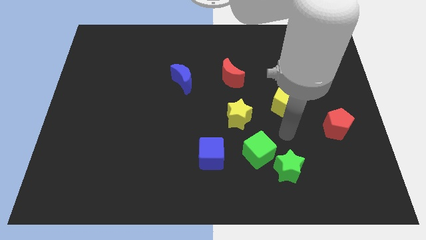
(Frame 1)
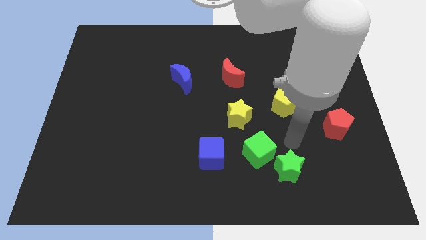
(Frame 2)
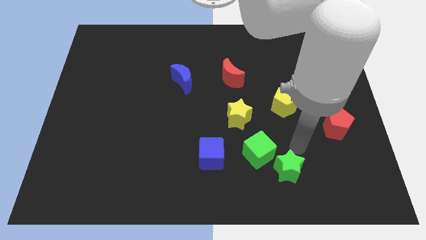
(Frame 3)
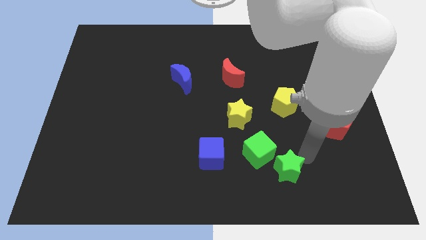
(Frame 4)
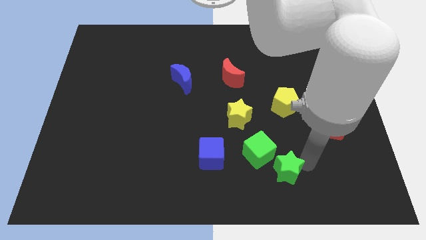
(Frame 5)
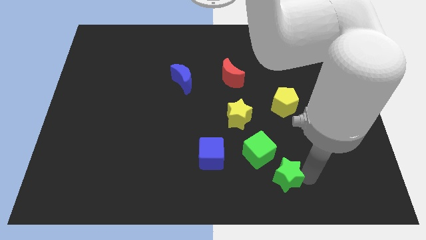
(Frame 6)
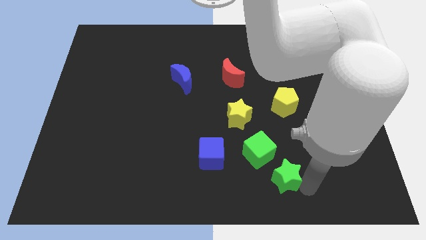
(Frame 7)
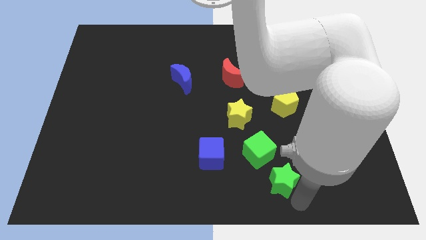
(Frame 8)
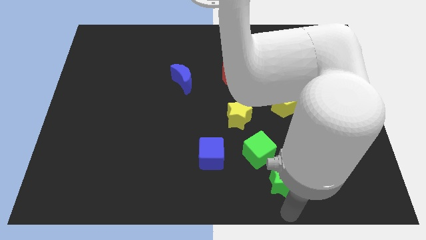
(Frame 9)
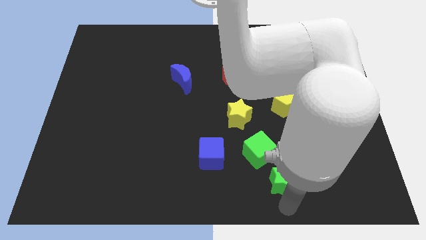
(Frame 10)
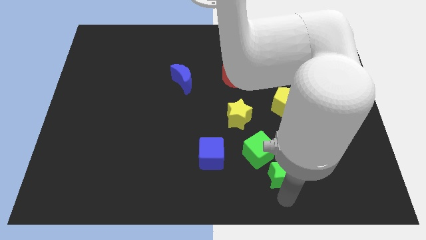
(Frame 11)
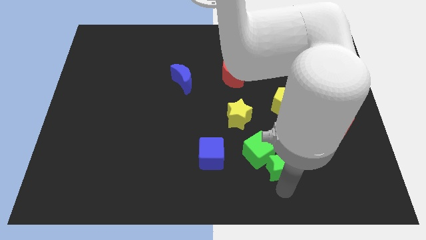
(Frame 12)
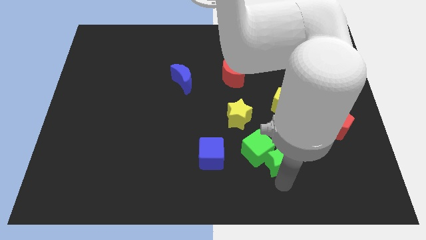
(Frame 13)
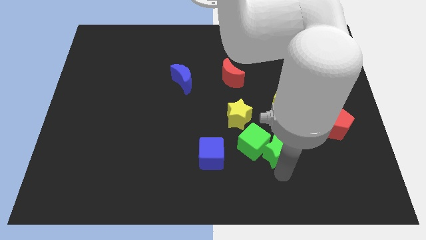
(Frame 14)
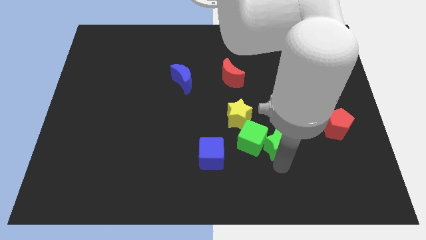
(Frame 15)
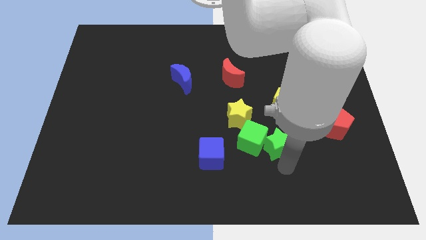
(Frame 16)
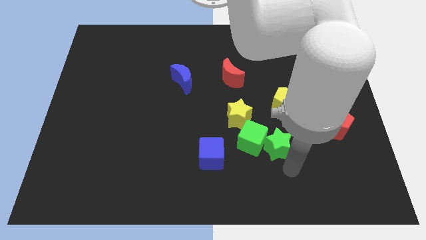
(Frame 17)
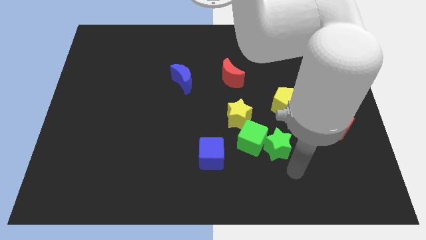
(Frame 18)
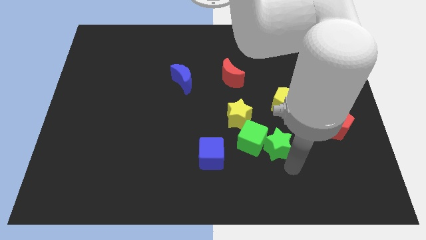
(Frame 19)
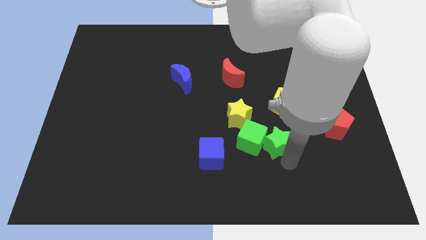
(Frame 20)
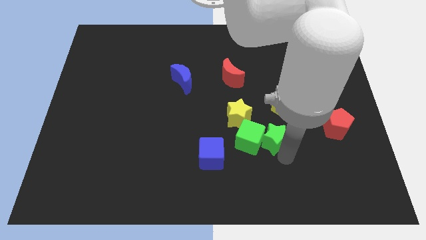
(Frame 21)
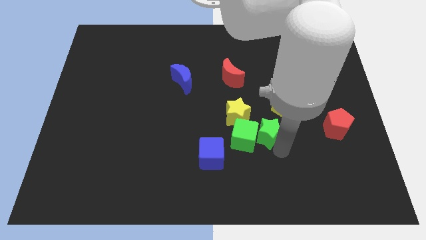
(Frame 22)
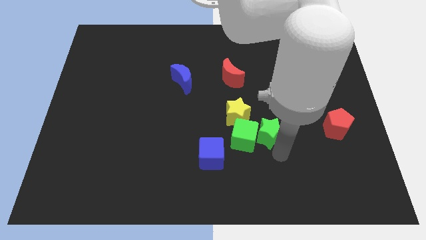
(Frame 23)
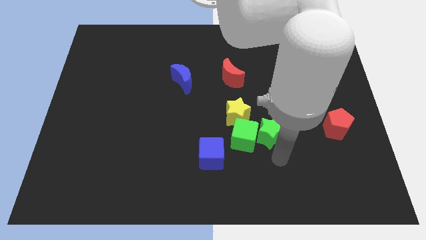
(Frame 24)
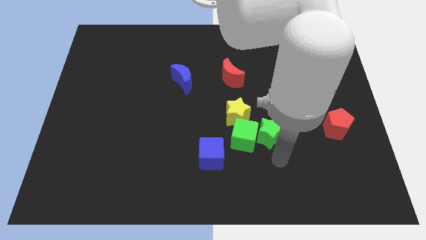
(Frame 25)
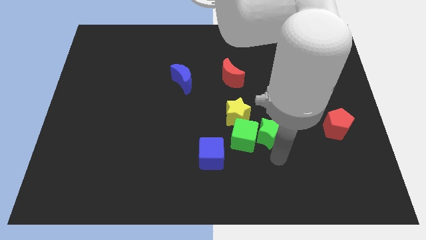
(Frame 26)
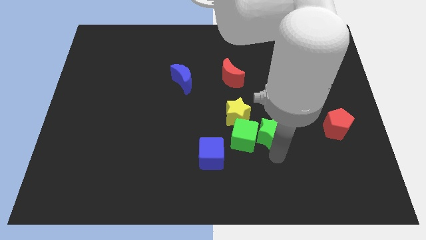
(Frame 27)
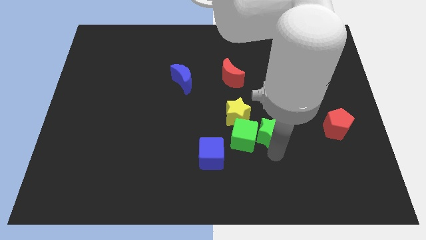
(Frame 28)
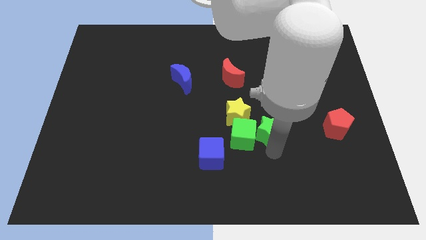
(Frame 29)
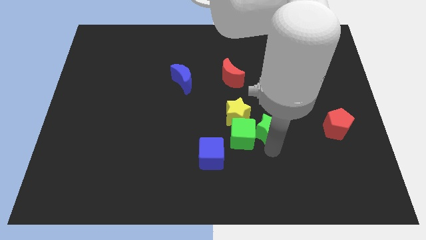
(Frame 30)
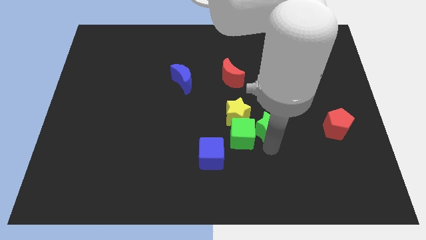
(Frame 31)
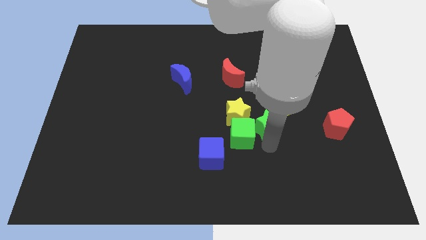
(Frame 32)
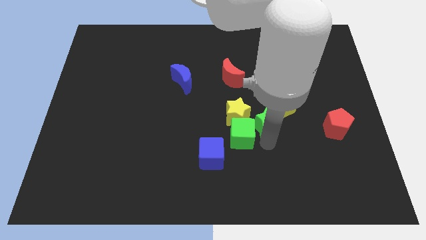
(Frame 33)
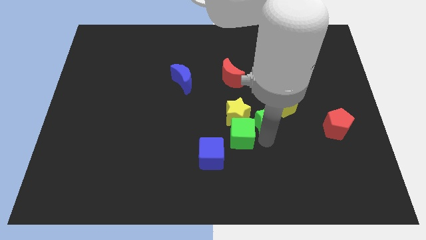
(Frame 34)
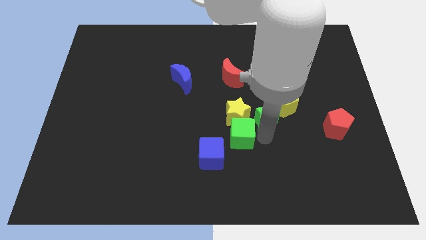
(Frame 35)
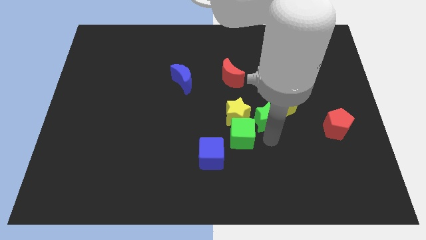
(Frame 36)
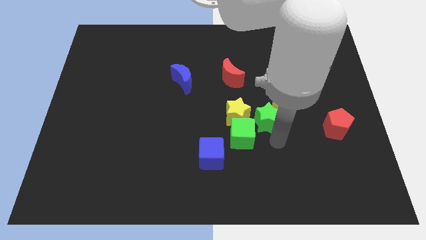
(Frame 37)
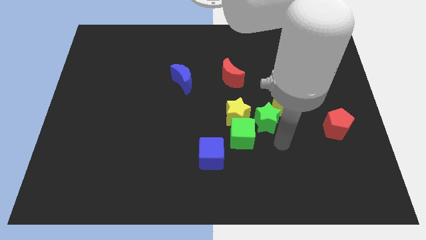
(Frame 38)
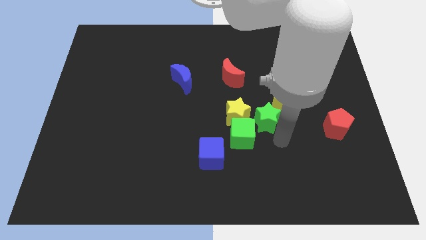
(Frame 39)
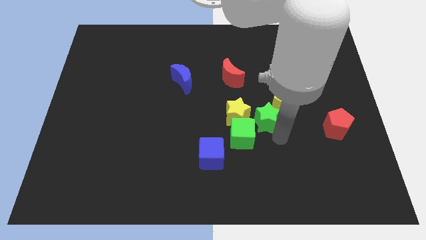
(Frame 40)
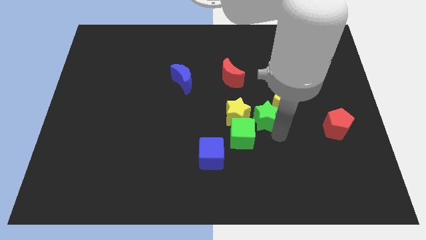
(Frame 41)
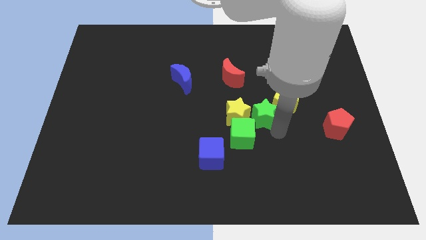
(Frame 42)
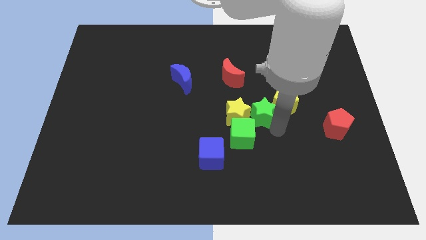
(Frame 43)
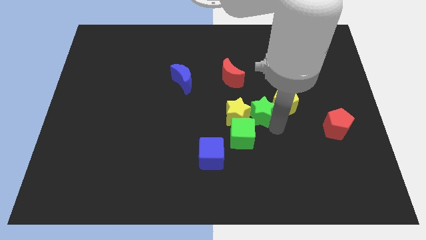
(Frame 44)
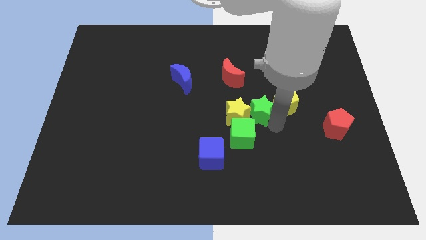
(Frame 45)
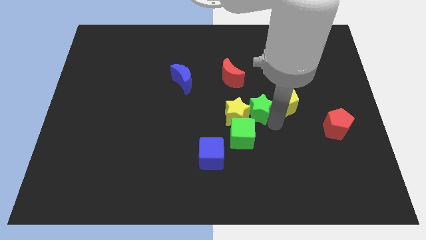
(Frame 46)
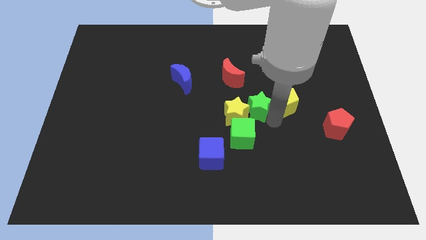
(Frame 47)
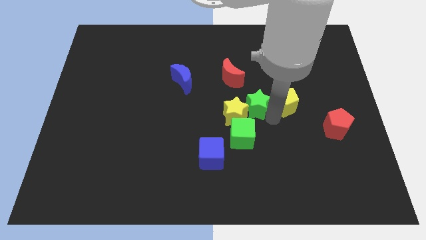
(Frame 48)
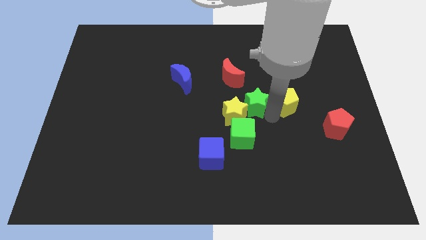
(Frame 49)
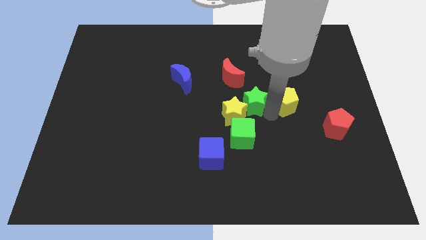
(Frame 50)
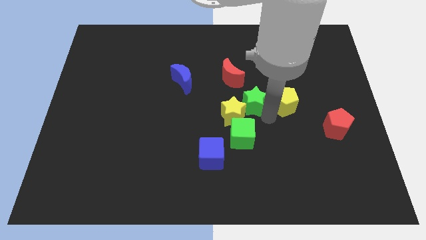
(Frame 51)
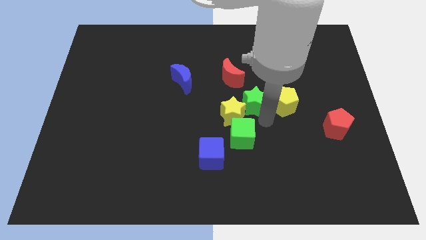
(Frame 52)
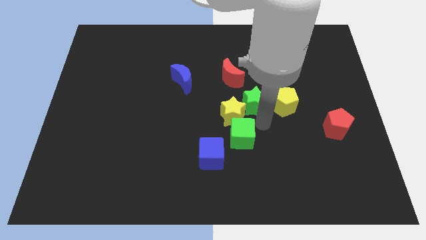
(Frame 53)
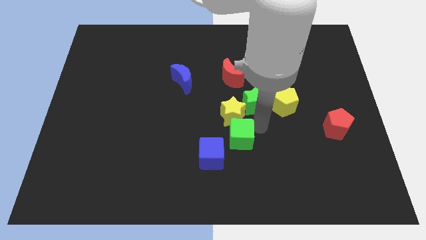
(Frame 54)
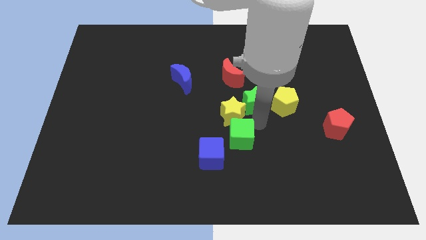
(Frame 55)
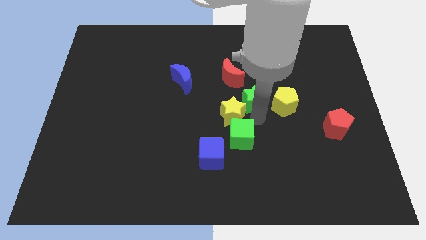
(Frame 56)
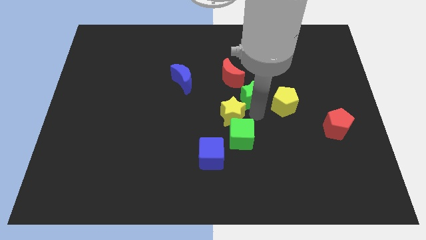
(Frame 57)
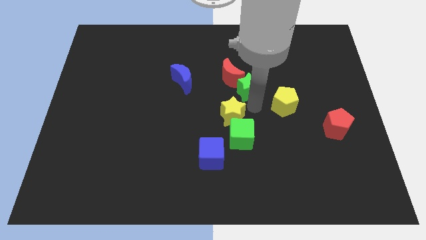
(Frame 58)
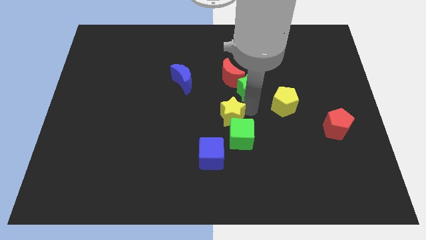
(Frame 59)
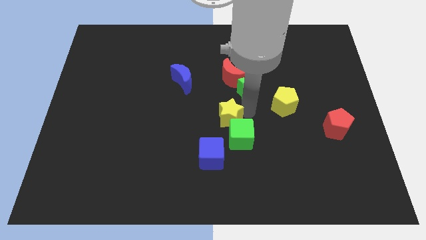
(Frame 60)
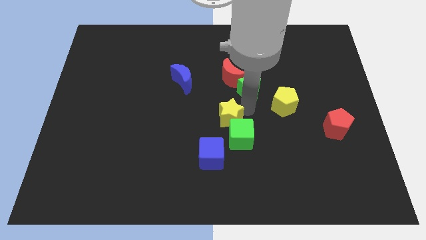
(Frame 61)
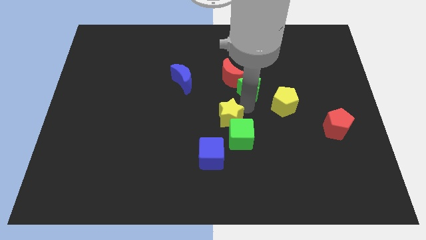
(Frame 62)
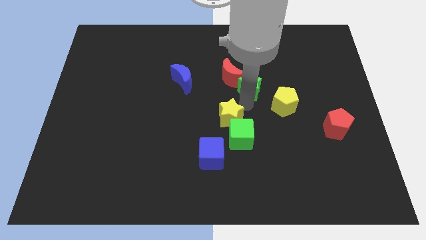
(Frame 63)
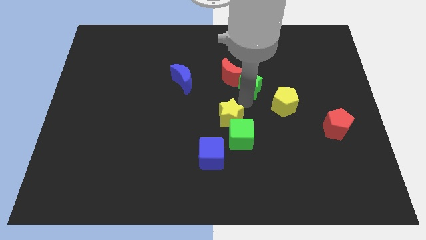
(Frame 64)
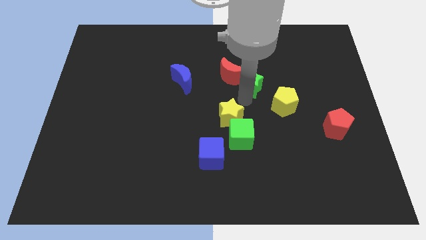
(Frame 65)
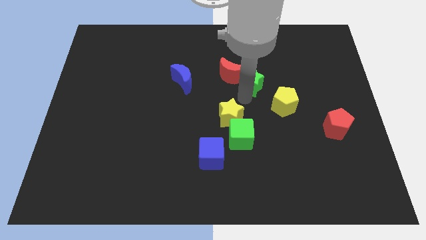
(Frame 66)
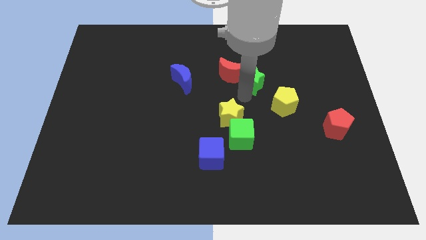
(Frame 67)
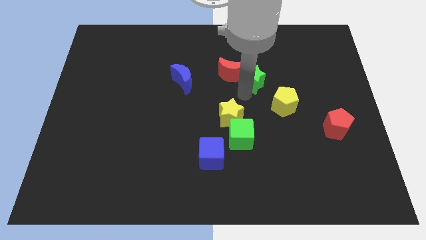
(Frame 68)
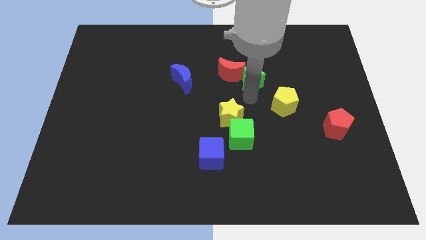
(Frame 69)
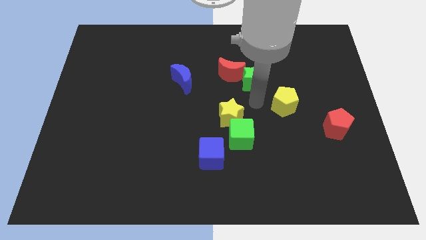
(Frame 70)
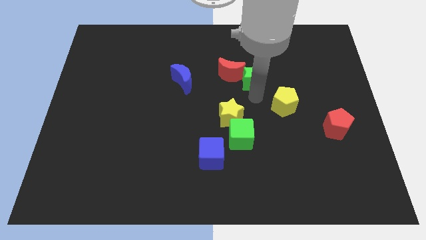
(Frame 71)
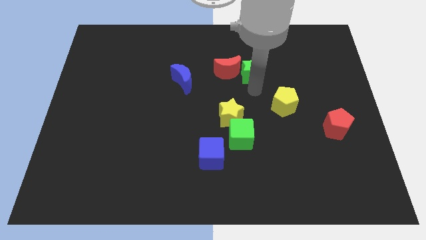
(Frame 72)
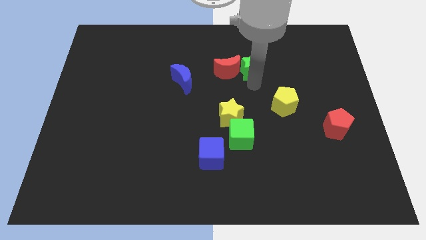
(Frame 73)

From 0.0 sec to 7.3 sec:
slide the green star diagonally up and to the right of the red moon
